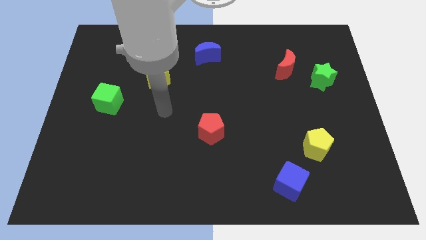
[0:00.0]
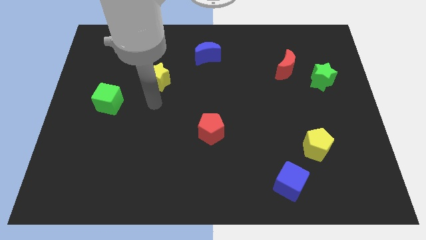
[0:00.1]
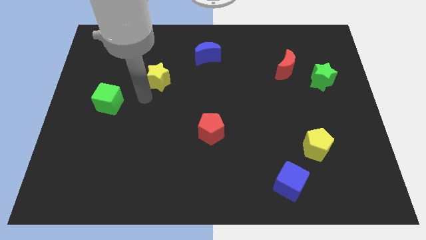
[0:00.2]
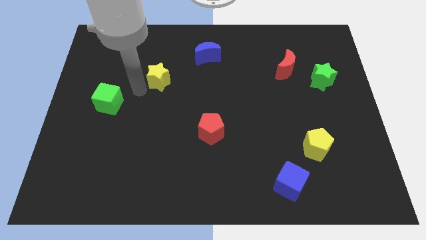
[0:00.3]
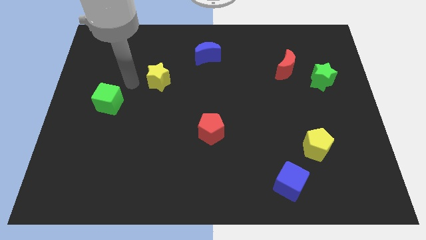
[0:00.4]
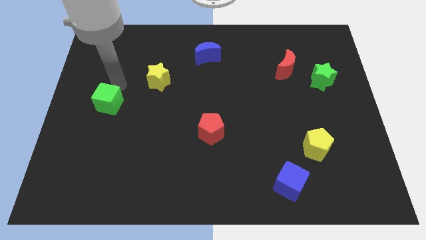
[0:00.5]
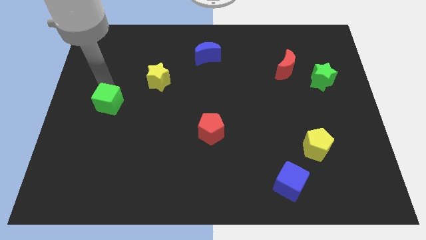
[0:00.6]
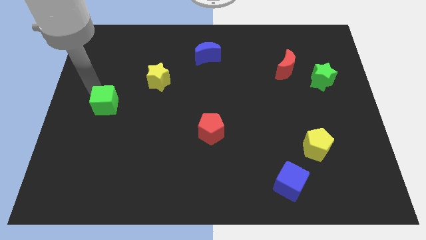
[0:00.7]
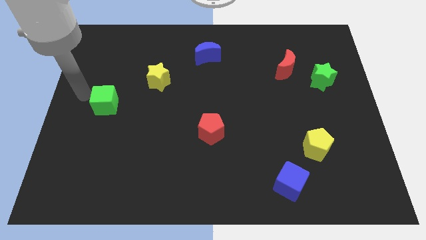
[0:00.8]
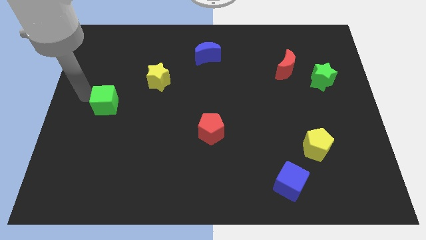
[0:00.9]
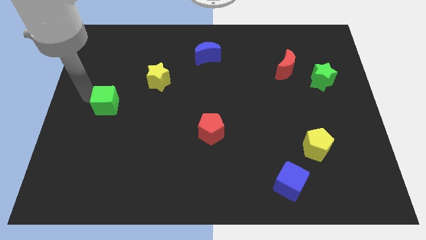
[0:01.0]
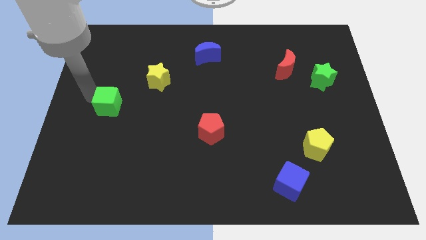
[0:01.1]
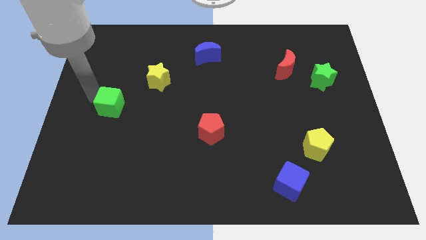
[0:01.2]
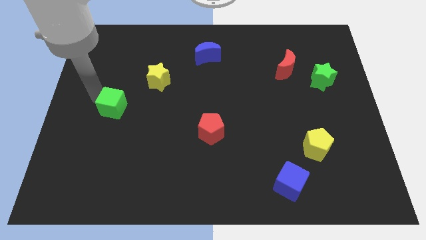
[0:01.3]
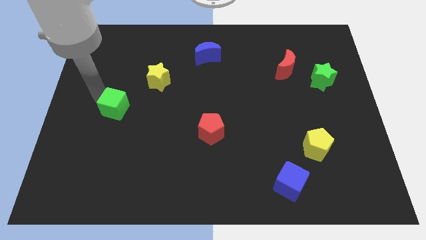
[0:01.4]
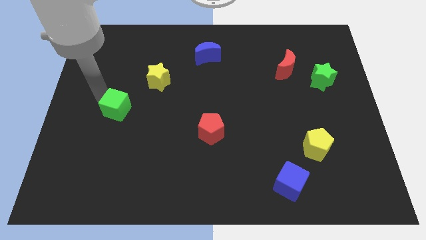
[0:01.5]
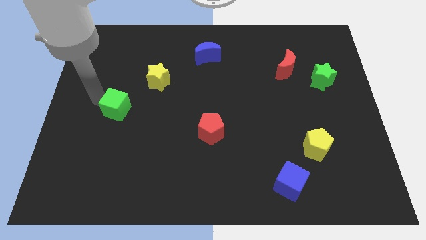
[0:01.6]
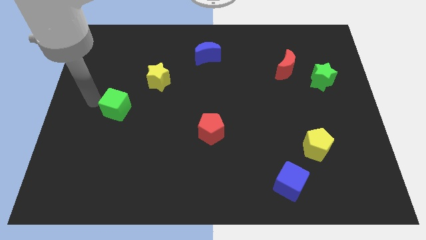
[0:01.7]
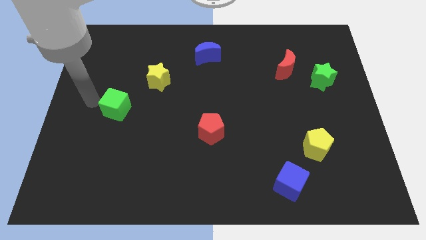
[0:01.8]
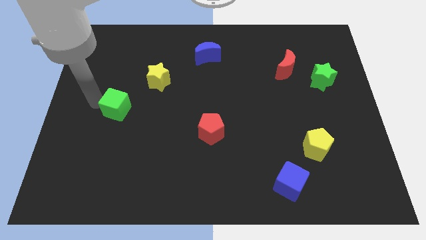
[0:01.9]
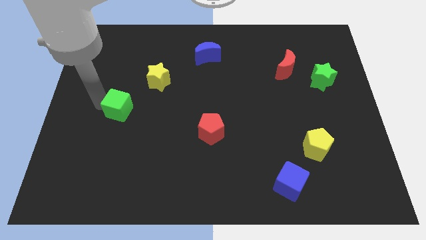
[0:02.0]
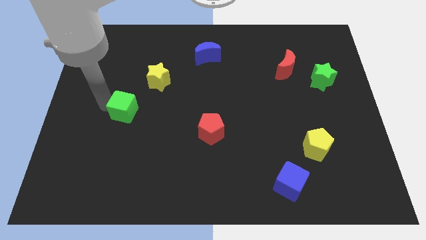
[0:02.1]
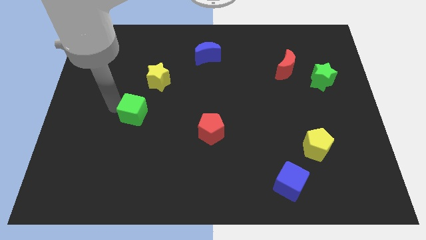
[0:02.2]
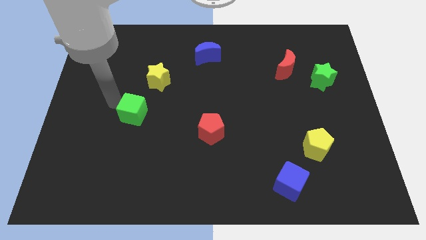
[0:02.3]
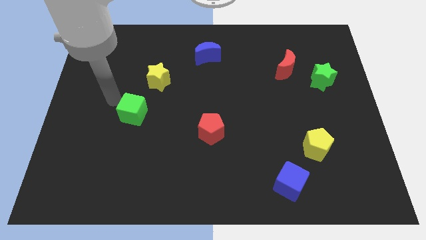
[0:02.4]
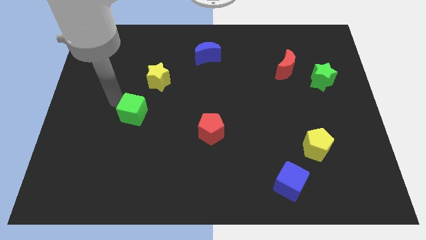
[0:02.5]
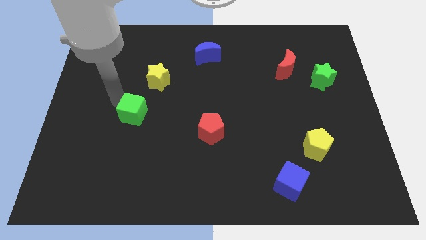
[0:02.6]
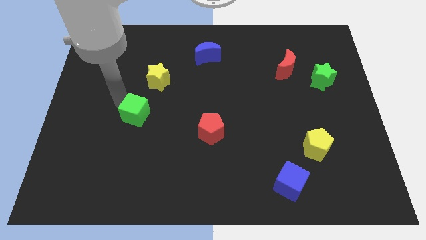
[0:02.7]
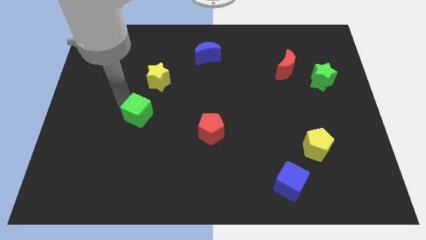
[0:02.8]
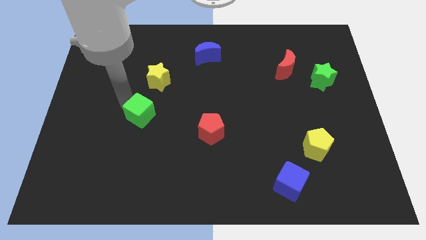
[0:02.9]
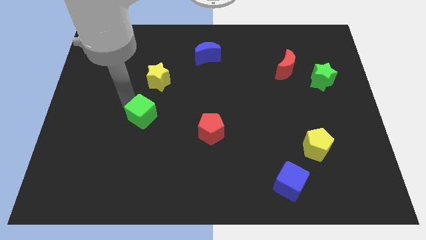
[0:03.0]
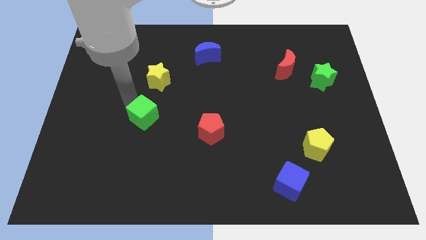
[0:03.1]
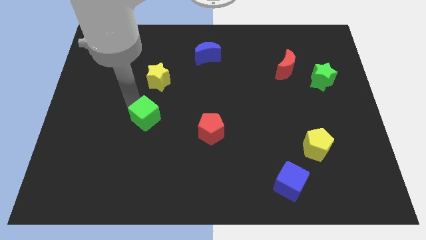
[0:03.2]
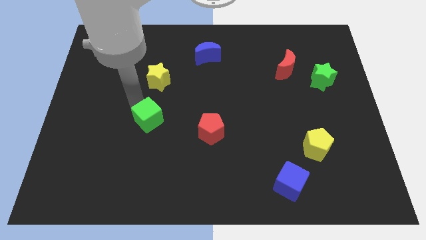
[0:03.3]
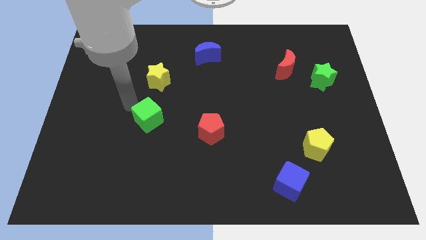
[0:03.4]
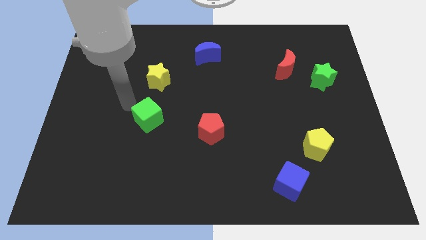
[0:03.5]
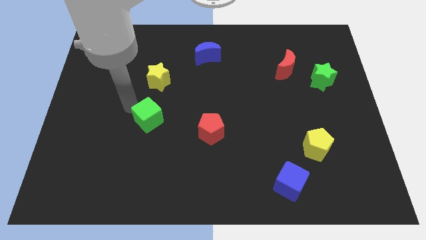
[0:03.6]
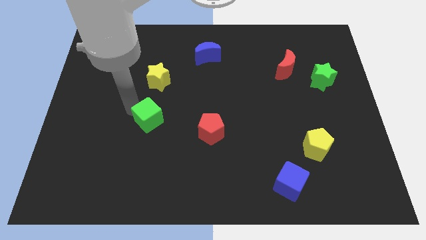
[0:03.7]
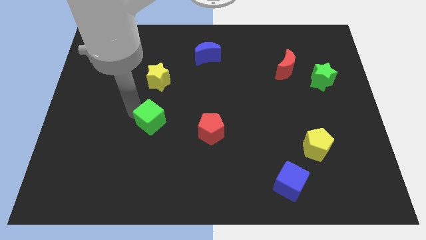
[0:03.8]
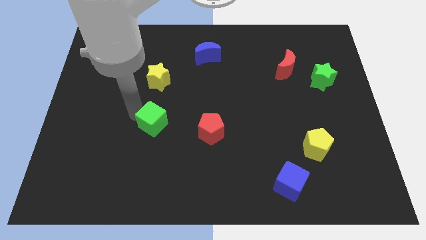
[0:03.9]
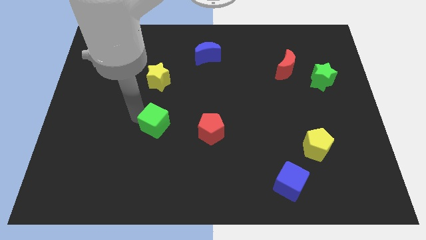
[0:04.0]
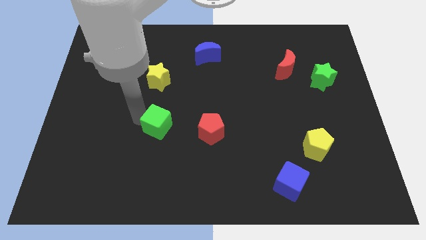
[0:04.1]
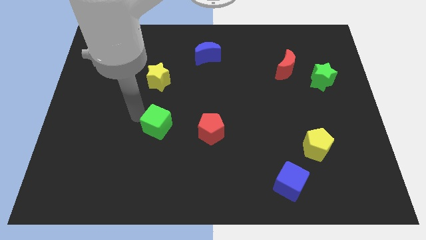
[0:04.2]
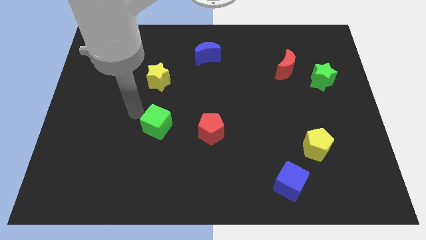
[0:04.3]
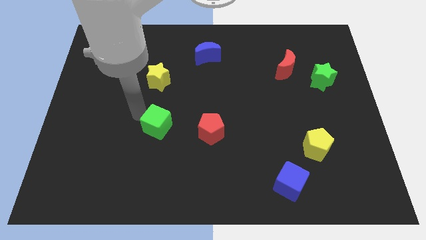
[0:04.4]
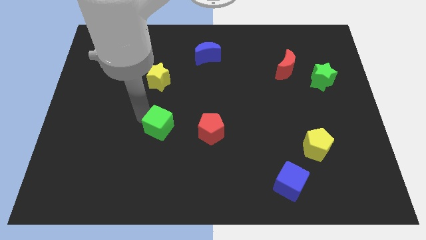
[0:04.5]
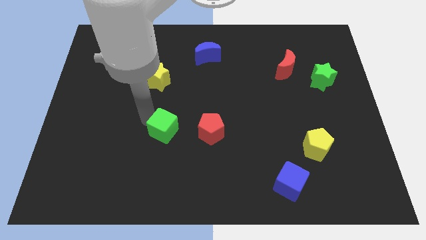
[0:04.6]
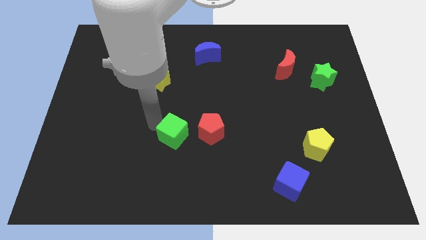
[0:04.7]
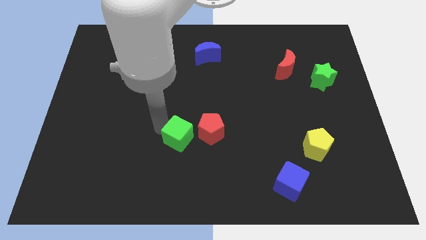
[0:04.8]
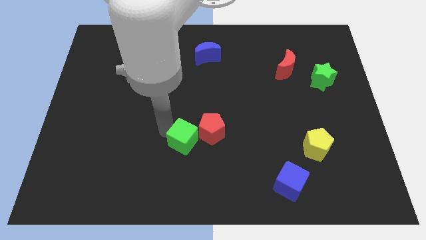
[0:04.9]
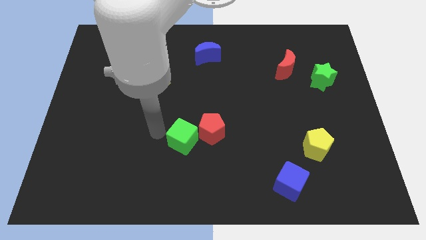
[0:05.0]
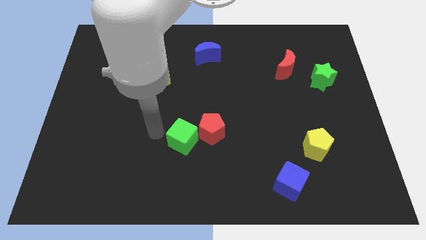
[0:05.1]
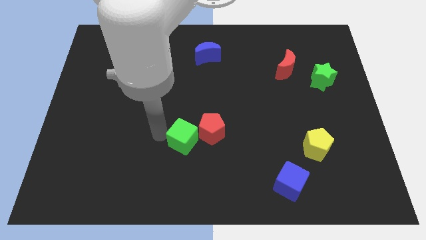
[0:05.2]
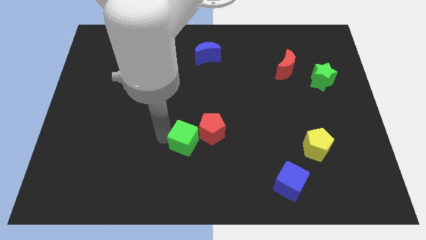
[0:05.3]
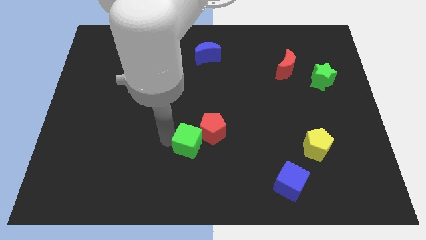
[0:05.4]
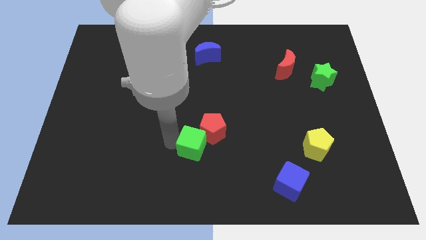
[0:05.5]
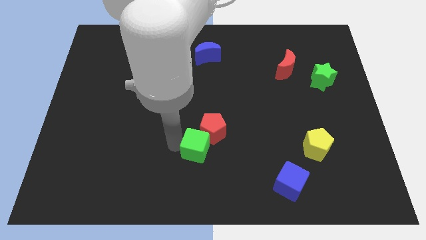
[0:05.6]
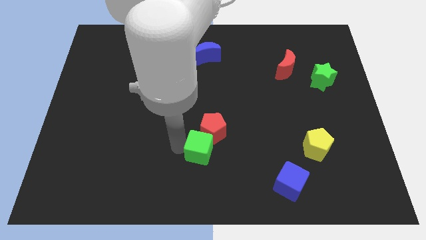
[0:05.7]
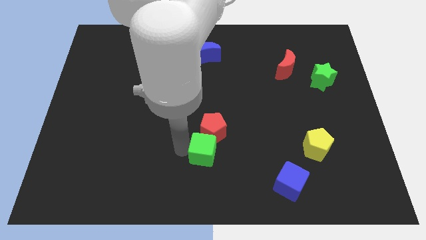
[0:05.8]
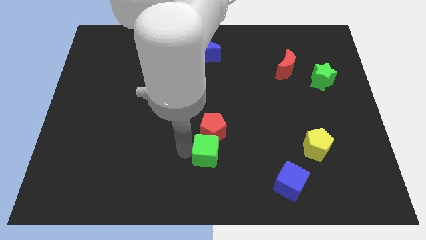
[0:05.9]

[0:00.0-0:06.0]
slide the green cube to the bottom right of the red pentagon

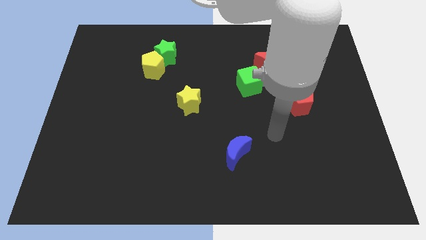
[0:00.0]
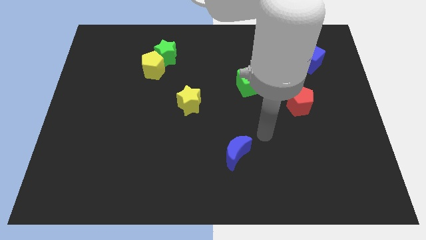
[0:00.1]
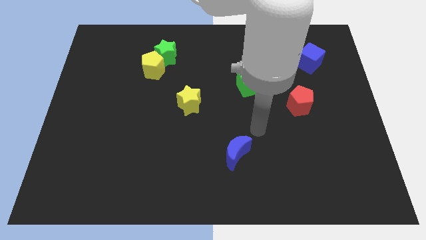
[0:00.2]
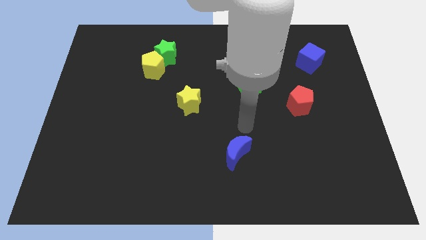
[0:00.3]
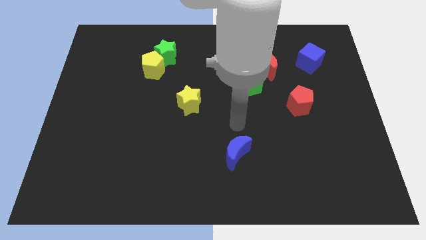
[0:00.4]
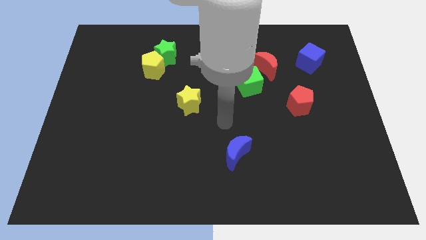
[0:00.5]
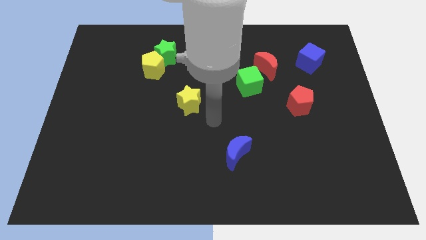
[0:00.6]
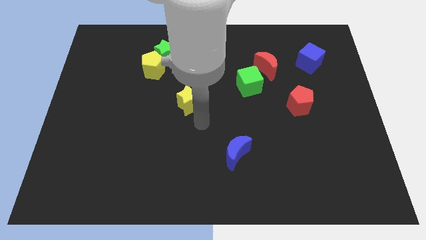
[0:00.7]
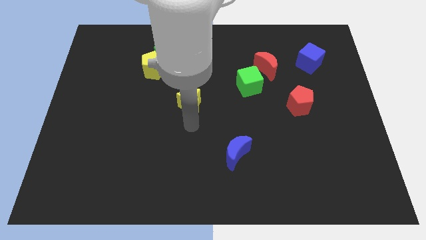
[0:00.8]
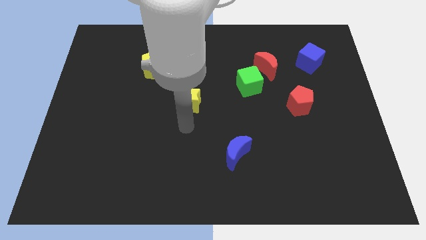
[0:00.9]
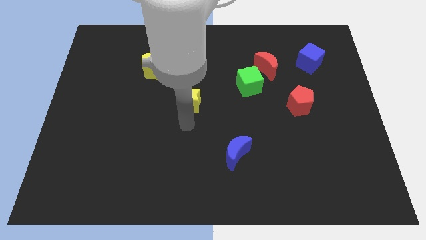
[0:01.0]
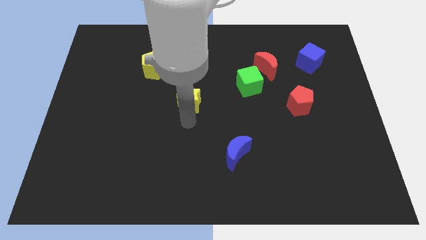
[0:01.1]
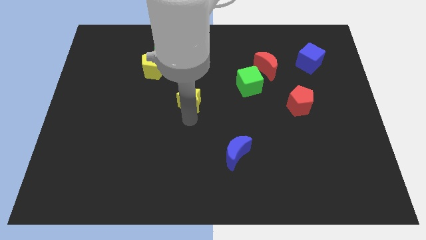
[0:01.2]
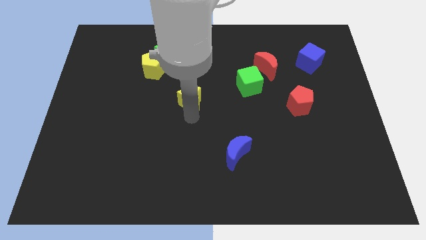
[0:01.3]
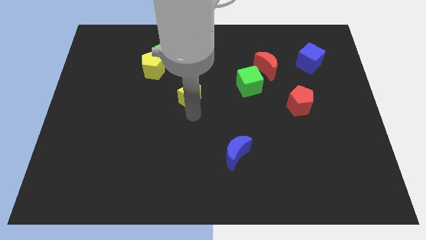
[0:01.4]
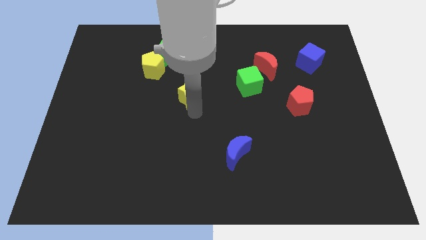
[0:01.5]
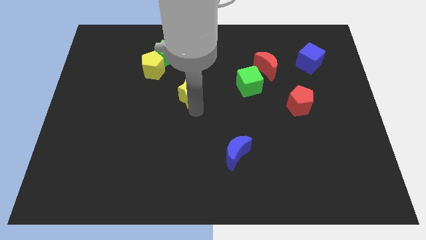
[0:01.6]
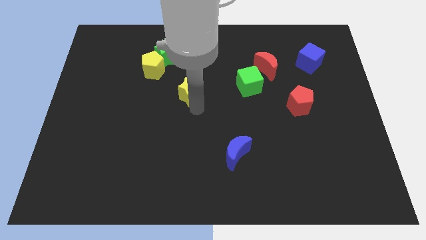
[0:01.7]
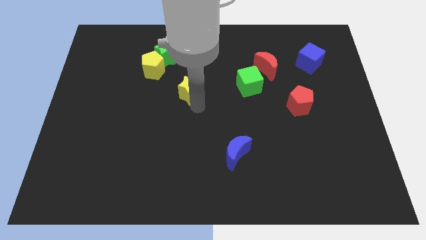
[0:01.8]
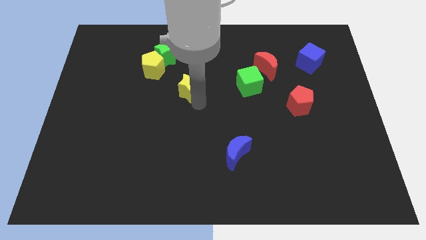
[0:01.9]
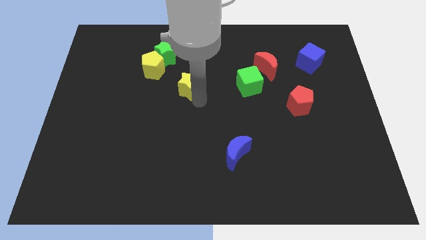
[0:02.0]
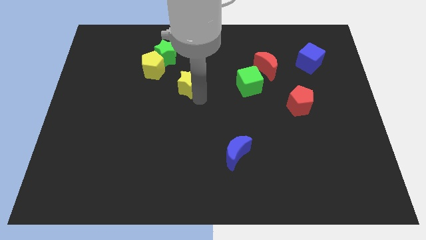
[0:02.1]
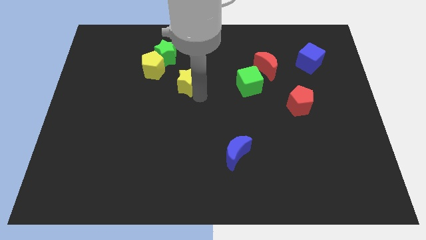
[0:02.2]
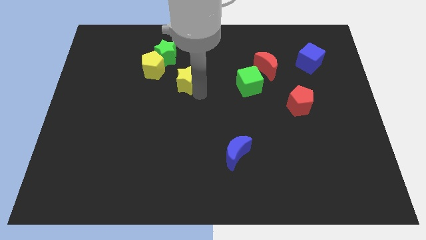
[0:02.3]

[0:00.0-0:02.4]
move the yellow star to the right side of the yellow pentagon
